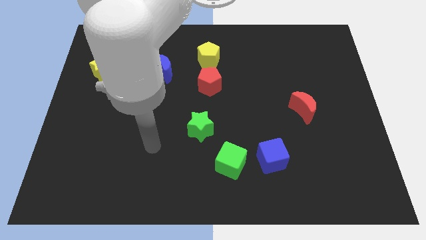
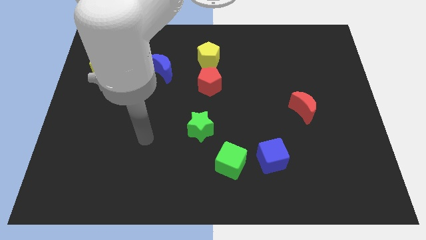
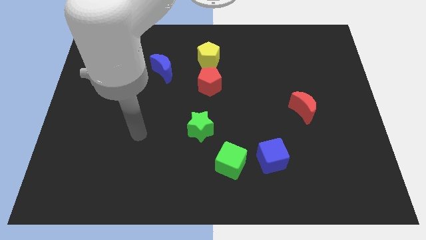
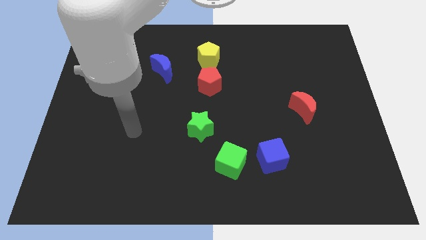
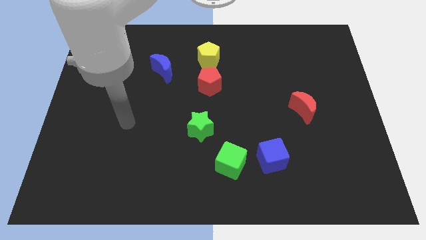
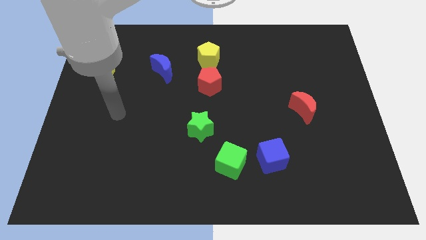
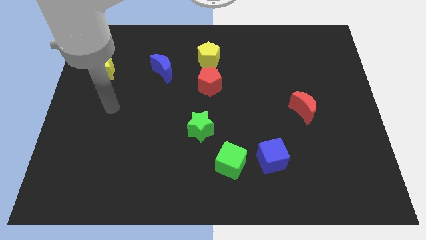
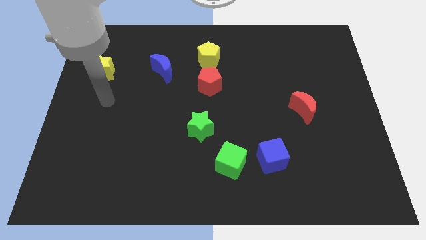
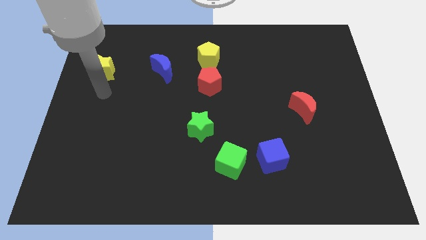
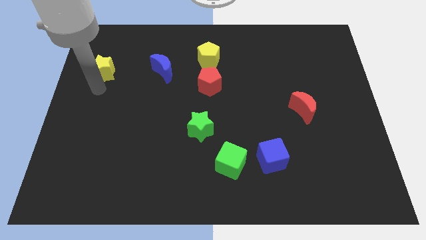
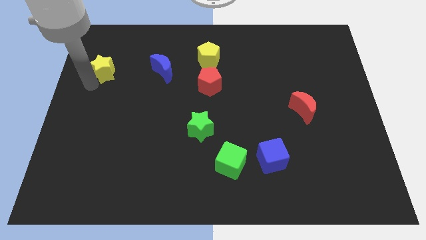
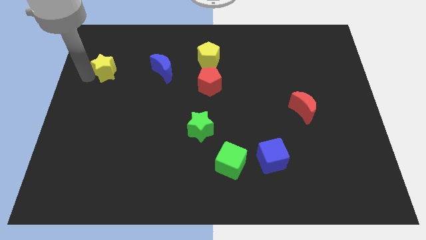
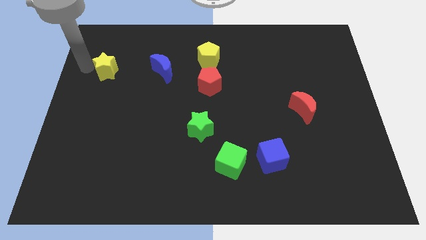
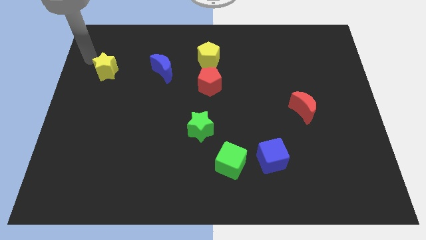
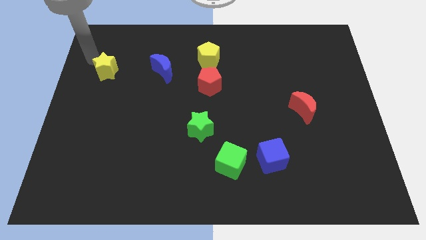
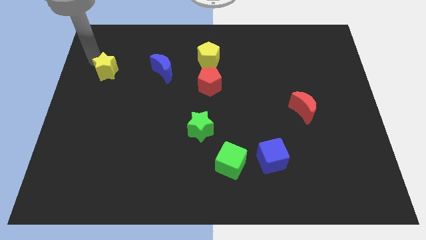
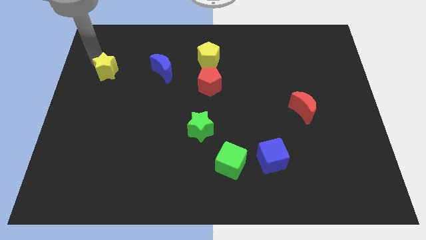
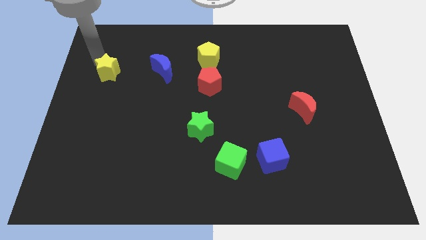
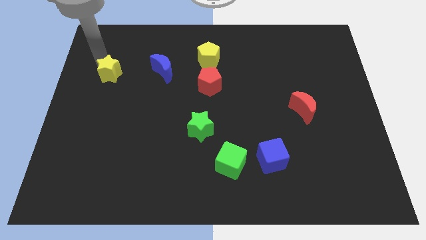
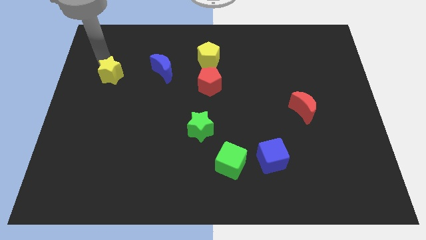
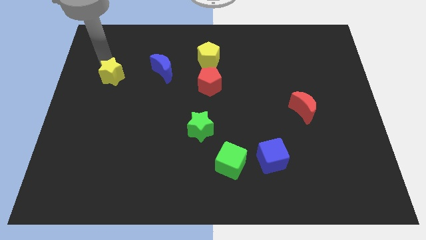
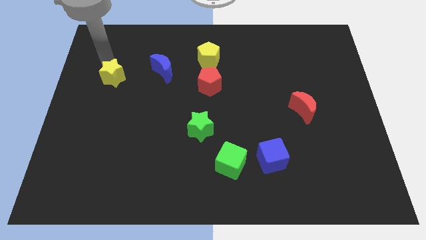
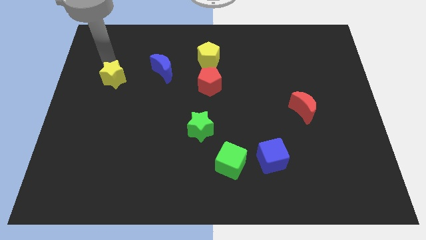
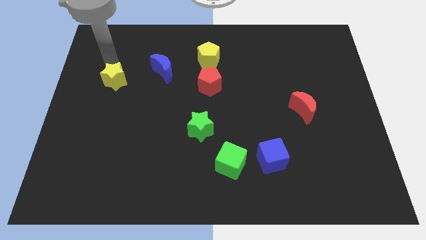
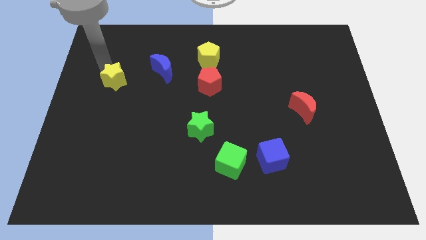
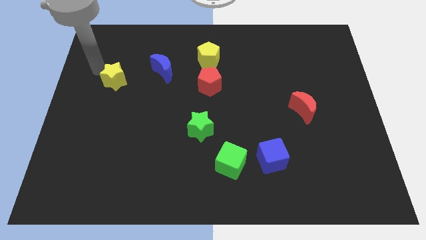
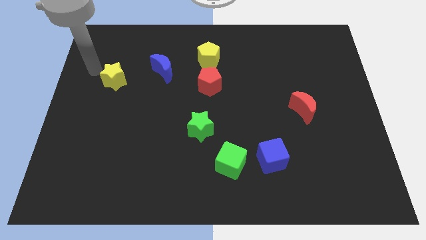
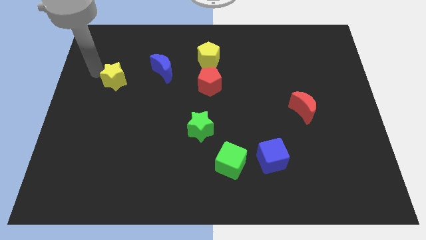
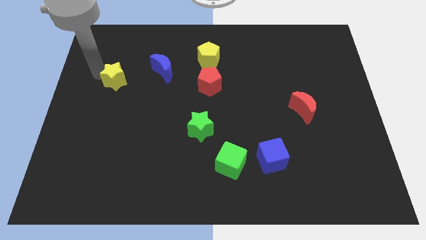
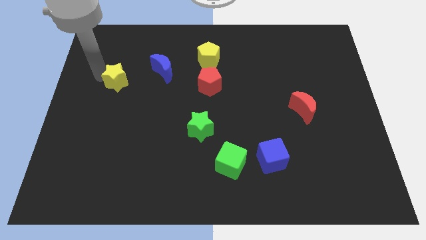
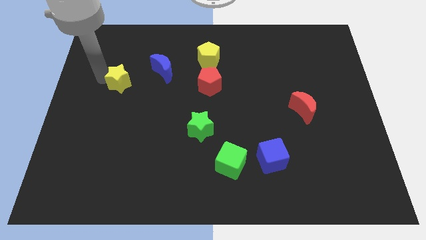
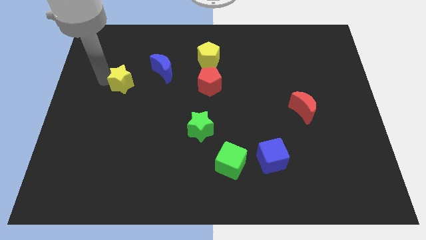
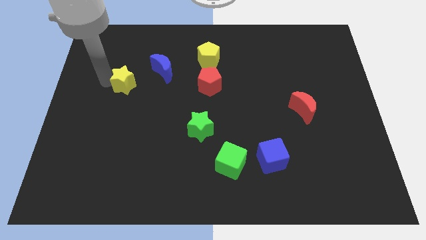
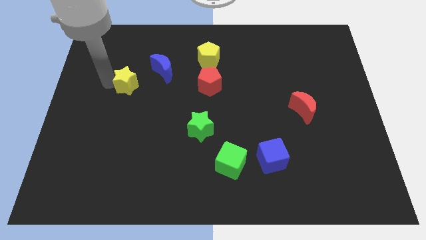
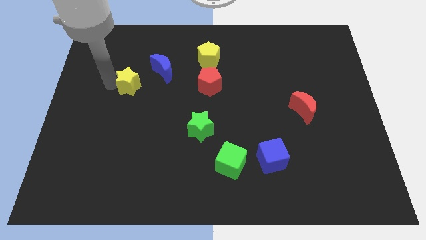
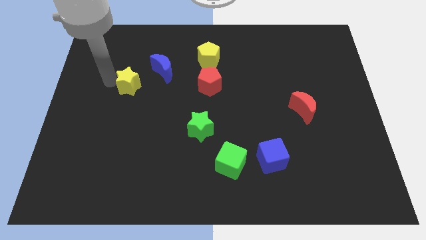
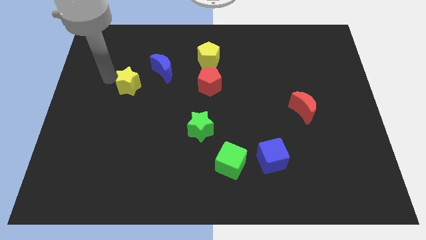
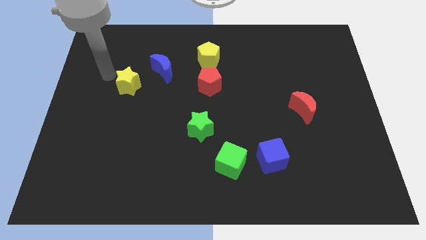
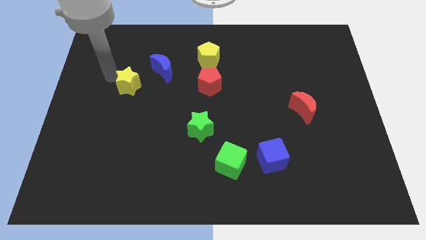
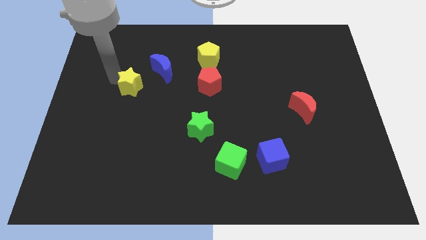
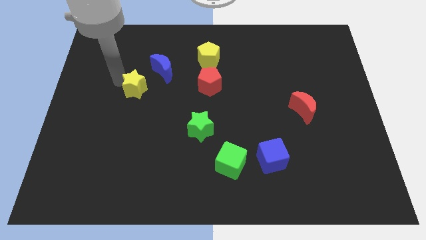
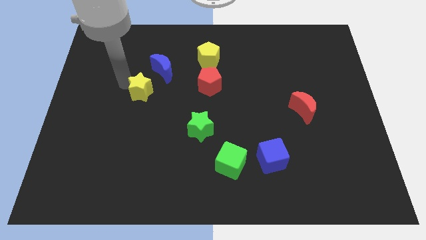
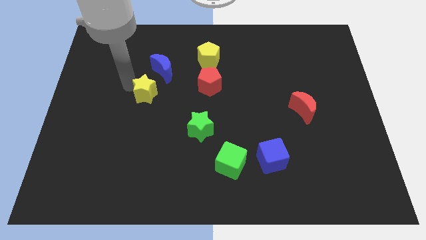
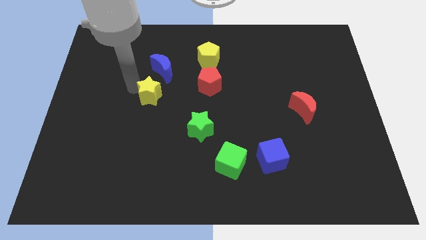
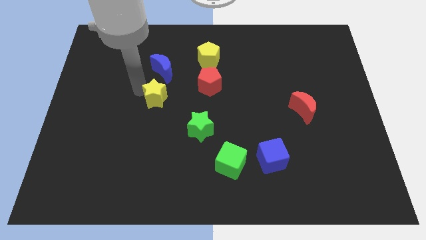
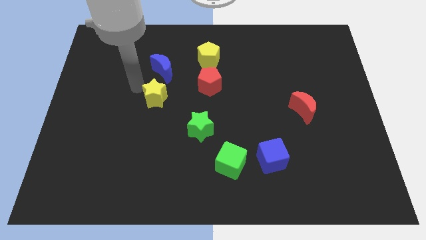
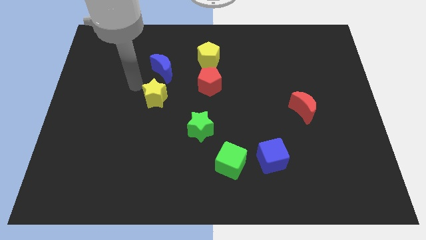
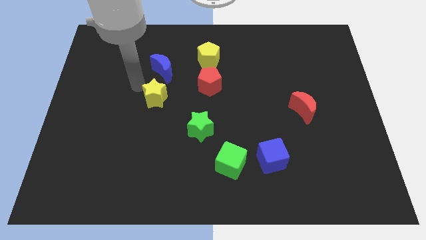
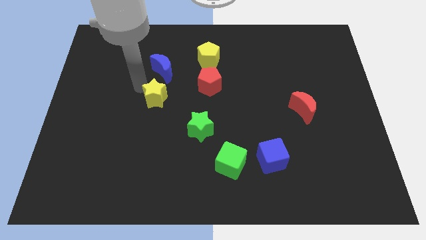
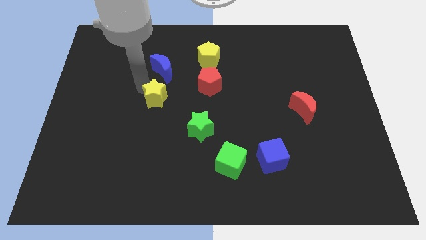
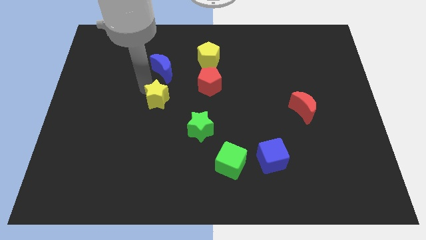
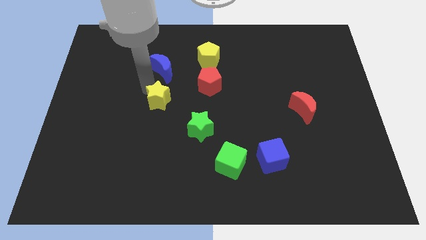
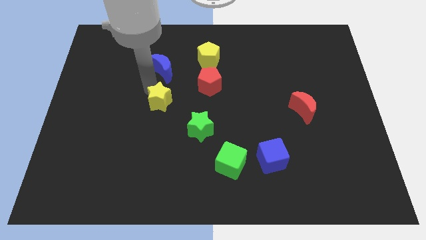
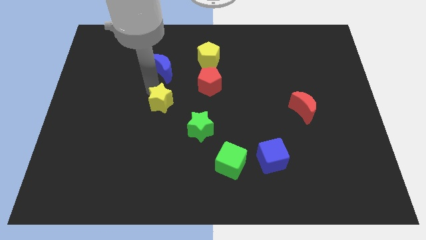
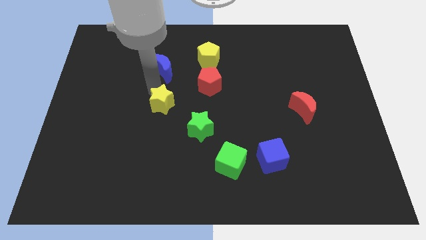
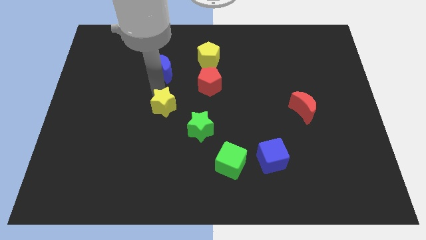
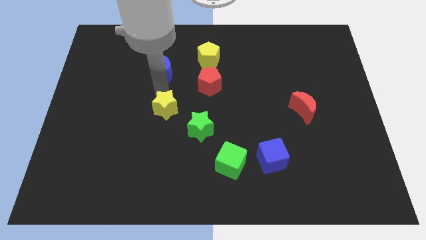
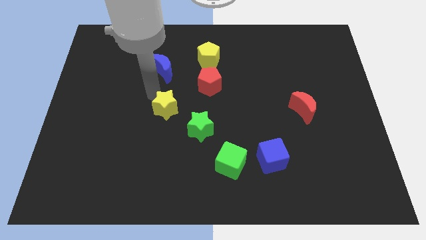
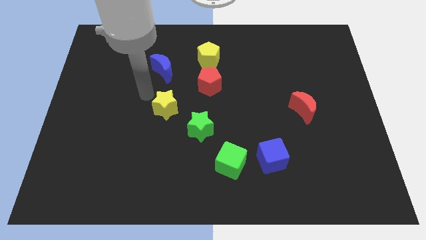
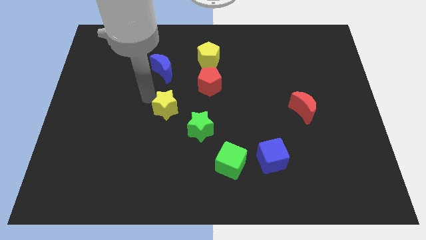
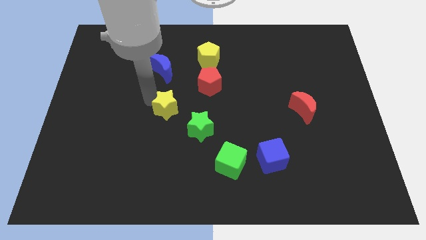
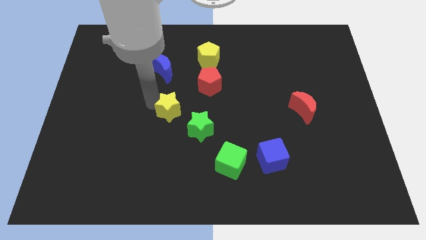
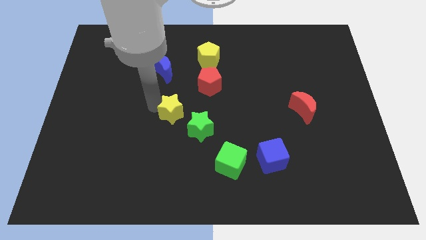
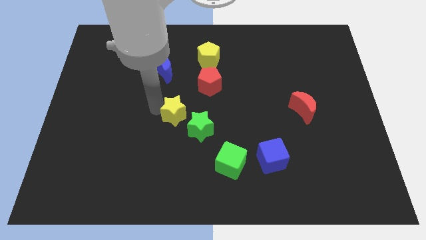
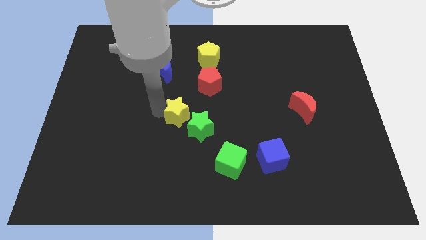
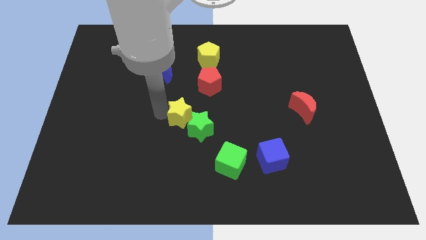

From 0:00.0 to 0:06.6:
put the yellow star towards the green star
